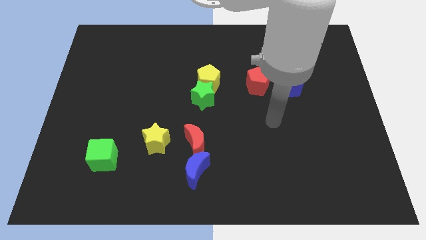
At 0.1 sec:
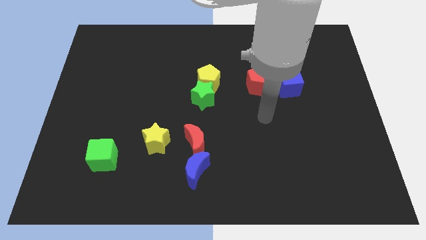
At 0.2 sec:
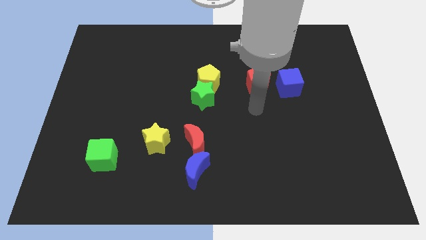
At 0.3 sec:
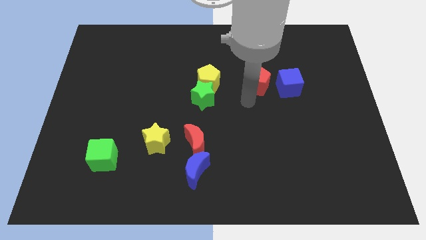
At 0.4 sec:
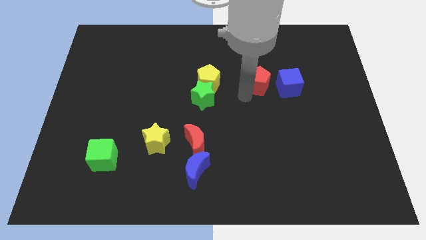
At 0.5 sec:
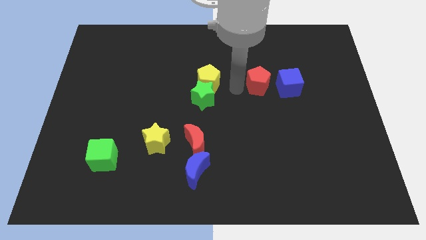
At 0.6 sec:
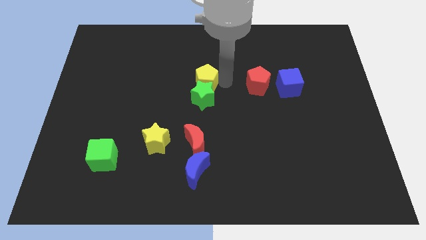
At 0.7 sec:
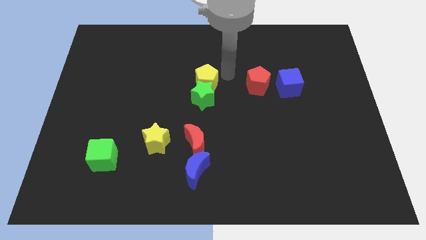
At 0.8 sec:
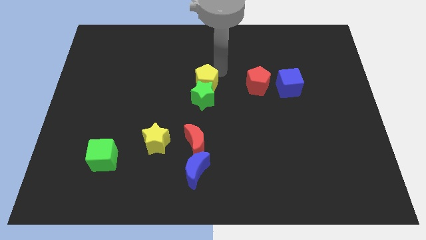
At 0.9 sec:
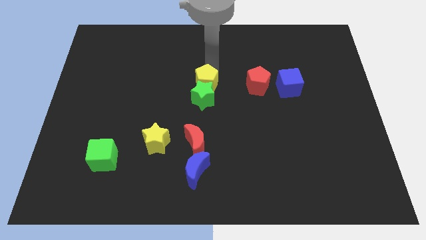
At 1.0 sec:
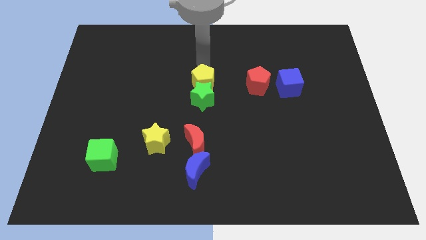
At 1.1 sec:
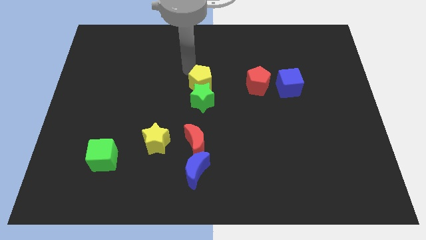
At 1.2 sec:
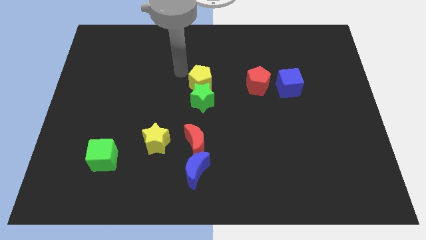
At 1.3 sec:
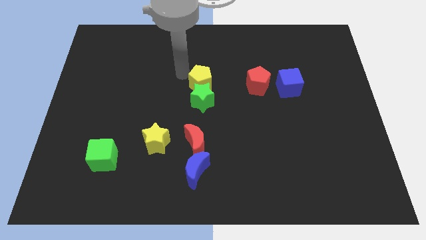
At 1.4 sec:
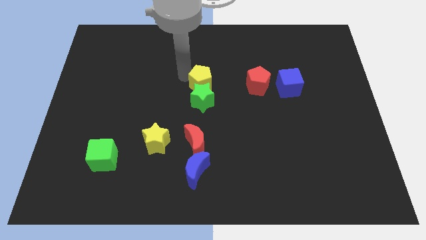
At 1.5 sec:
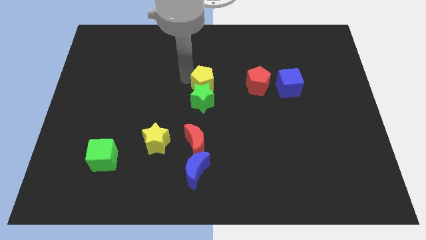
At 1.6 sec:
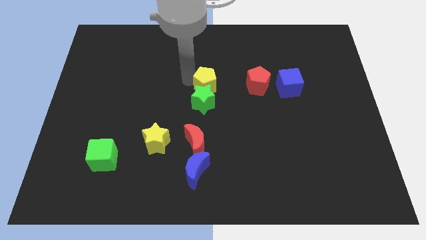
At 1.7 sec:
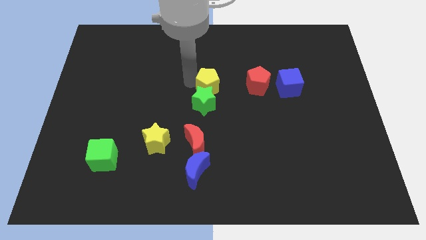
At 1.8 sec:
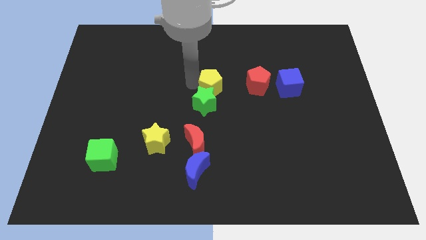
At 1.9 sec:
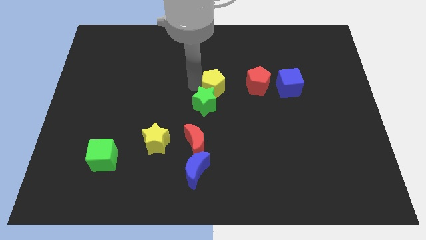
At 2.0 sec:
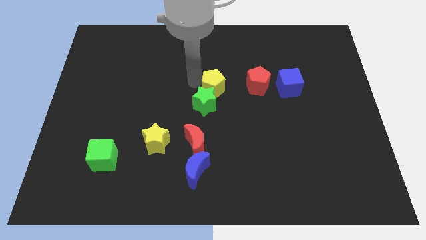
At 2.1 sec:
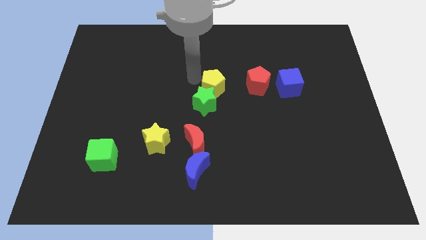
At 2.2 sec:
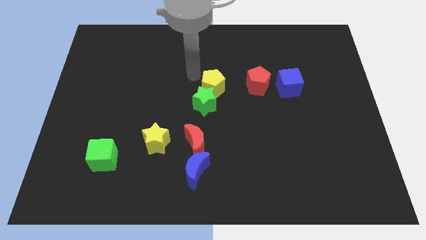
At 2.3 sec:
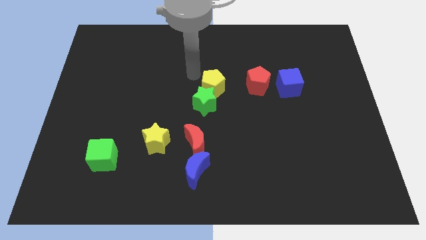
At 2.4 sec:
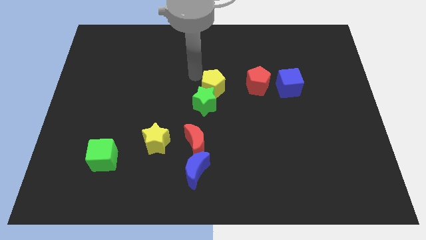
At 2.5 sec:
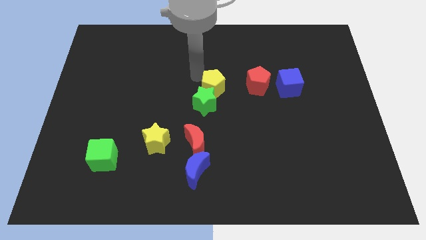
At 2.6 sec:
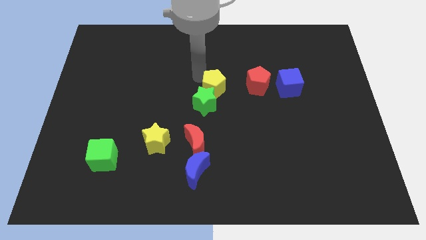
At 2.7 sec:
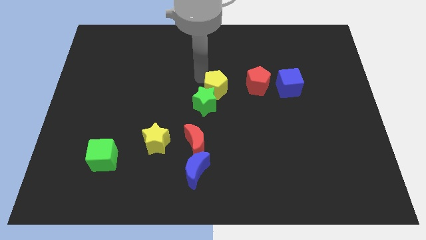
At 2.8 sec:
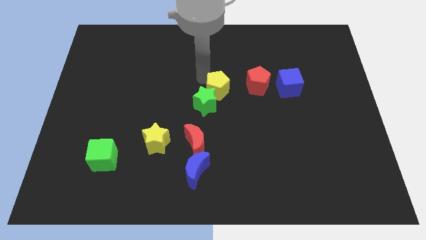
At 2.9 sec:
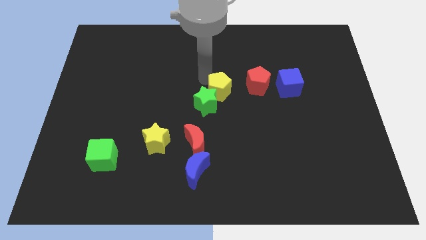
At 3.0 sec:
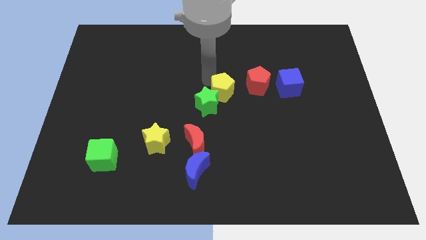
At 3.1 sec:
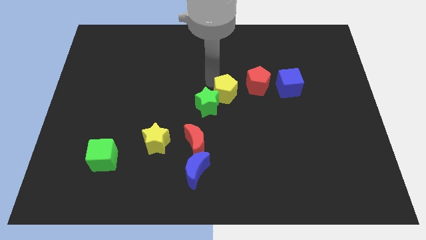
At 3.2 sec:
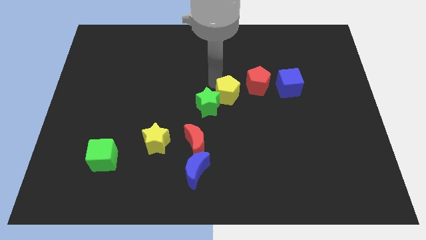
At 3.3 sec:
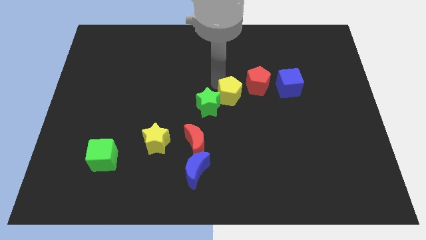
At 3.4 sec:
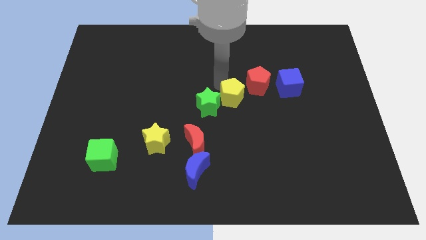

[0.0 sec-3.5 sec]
push the yellow pentagon a bit downwards and to the right

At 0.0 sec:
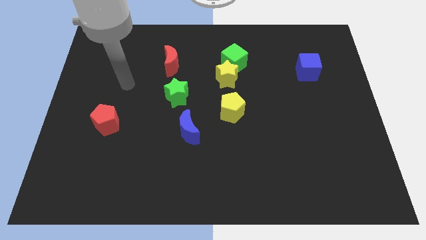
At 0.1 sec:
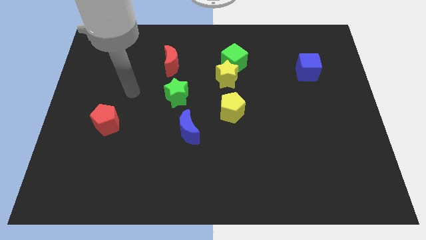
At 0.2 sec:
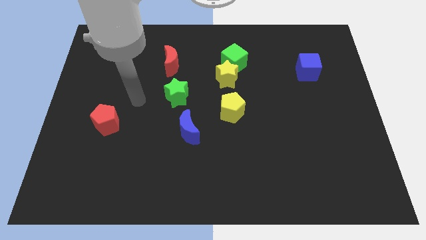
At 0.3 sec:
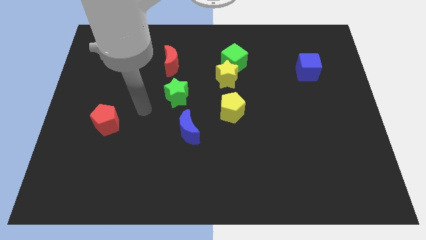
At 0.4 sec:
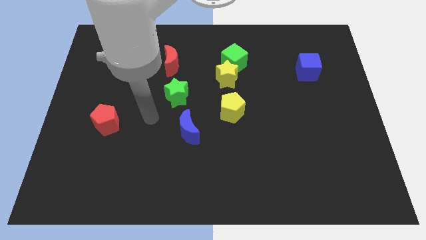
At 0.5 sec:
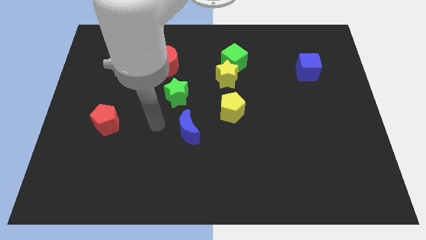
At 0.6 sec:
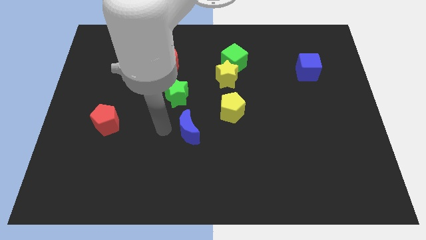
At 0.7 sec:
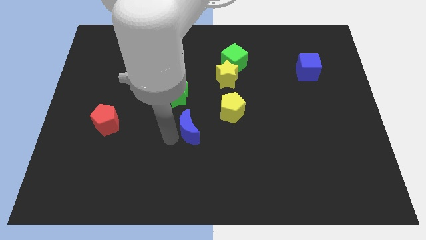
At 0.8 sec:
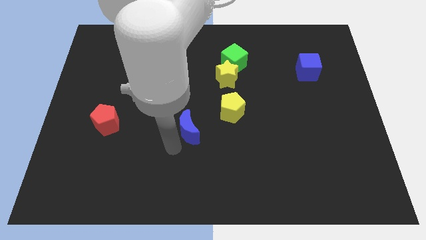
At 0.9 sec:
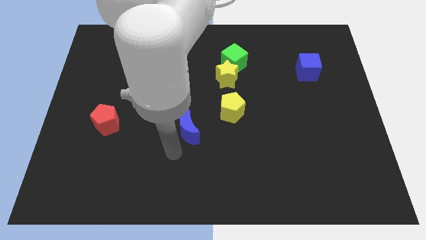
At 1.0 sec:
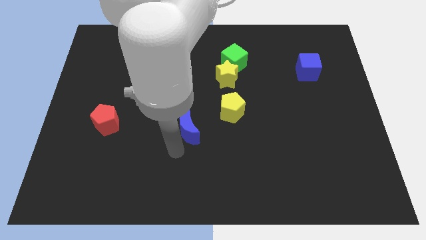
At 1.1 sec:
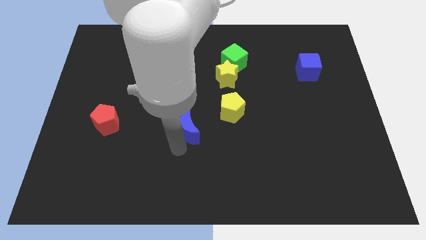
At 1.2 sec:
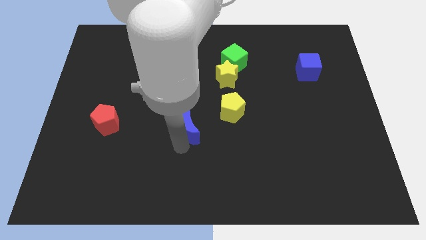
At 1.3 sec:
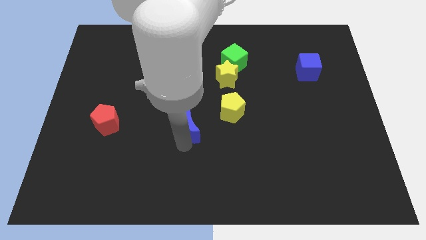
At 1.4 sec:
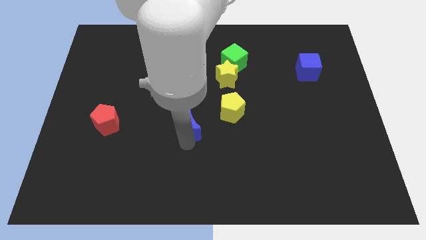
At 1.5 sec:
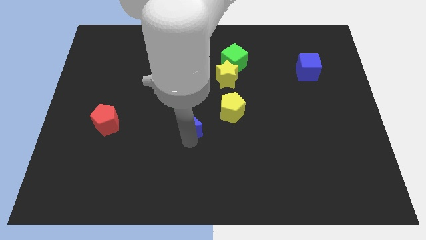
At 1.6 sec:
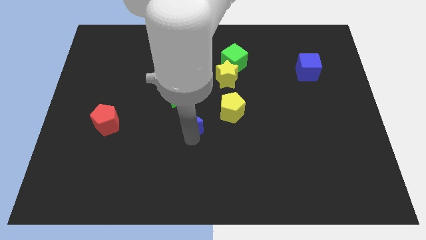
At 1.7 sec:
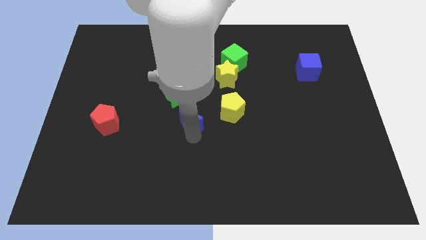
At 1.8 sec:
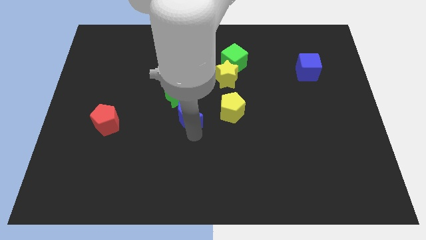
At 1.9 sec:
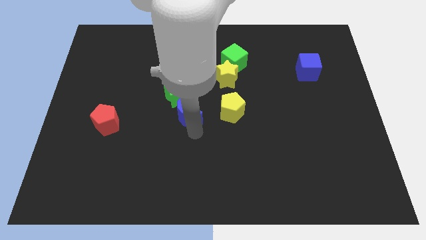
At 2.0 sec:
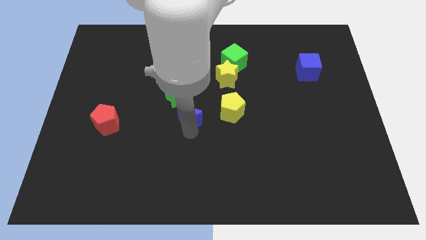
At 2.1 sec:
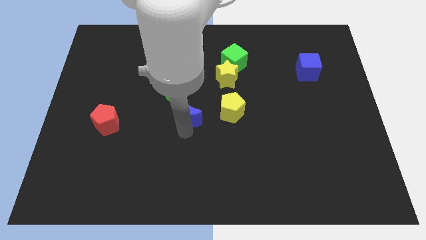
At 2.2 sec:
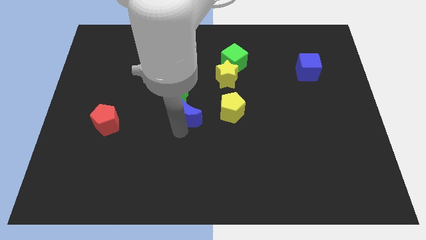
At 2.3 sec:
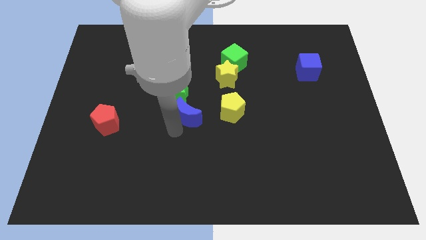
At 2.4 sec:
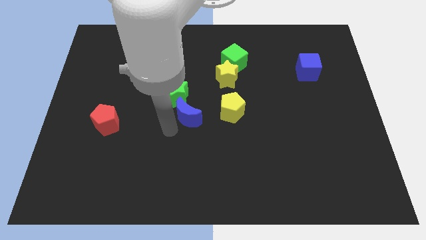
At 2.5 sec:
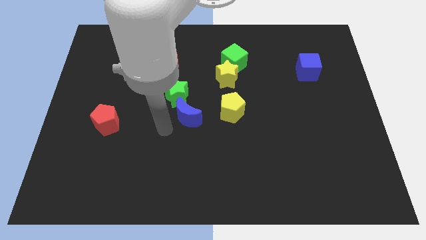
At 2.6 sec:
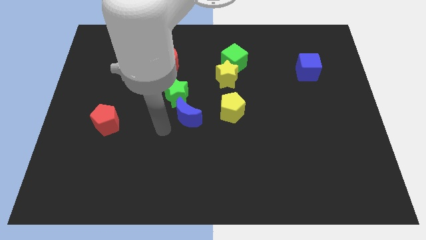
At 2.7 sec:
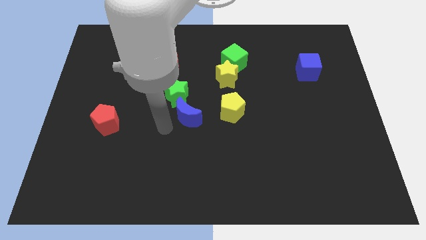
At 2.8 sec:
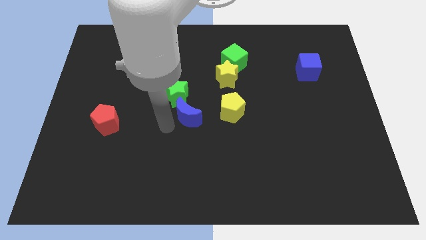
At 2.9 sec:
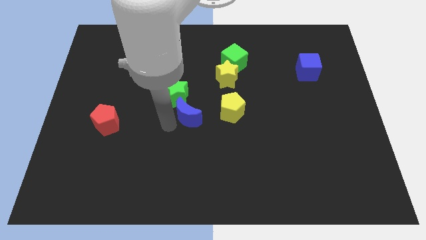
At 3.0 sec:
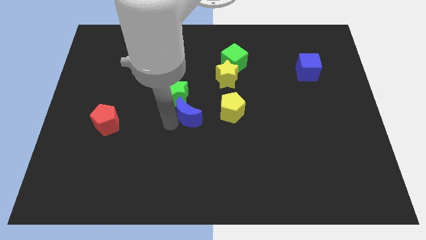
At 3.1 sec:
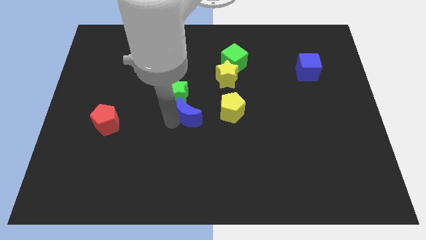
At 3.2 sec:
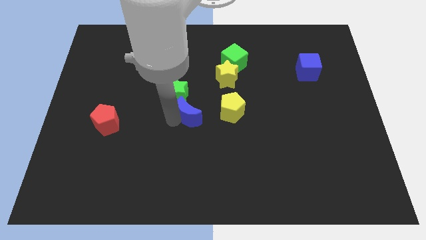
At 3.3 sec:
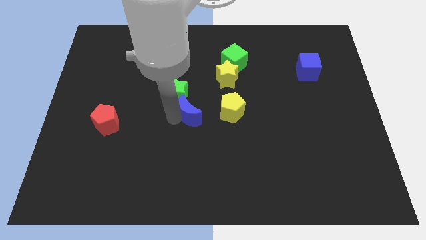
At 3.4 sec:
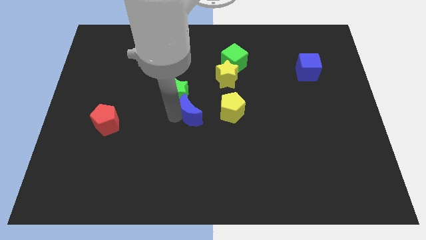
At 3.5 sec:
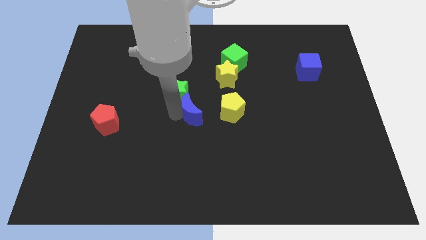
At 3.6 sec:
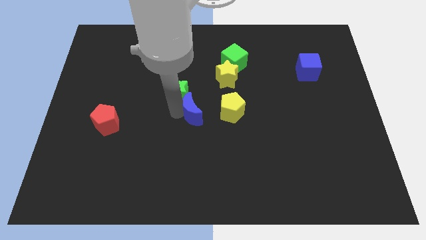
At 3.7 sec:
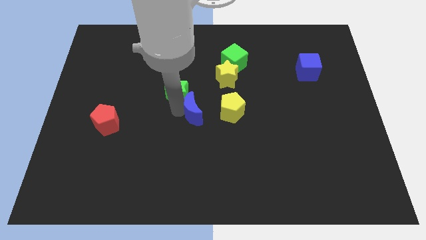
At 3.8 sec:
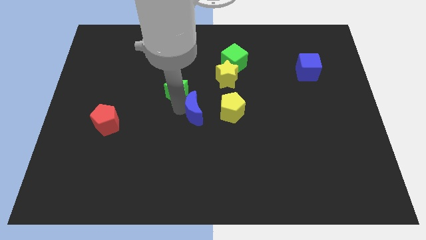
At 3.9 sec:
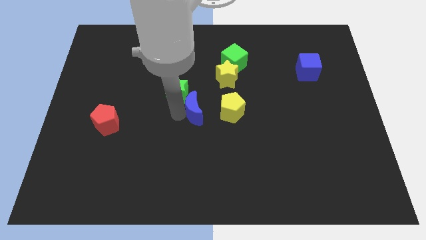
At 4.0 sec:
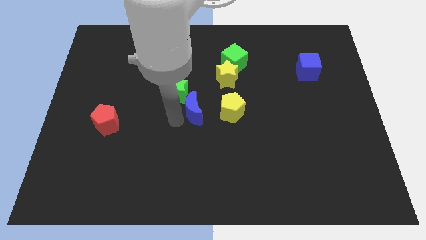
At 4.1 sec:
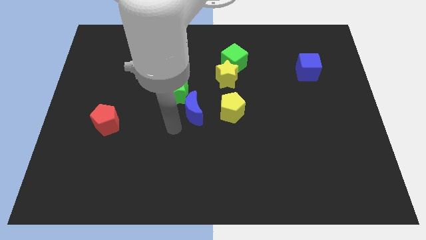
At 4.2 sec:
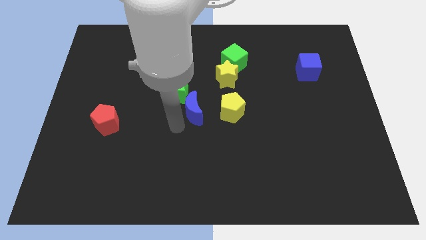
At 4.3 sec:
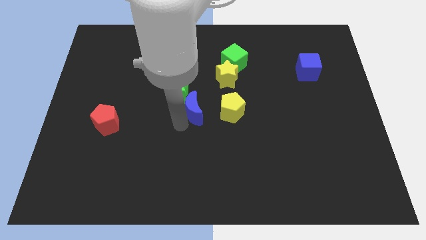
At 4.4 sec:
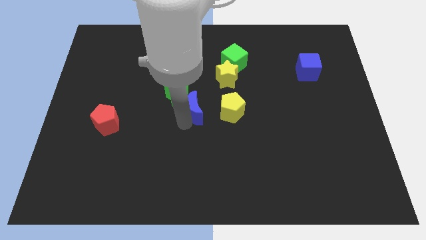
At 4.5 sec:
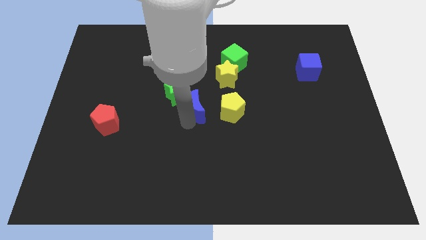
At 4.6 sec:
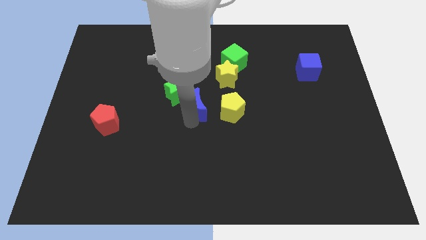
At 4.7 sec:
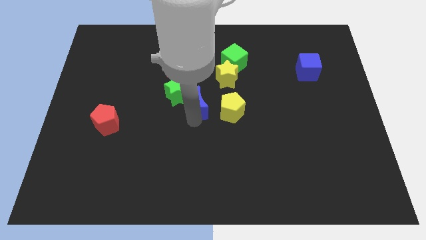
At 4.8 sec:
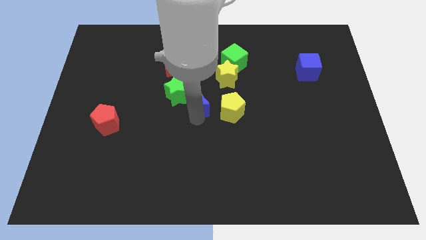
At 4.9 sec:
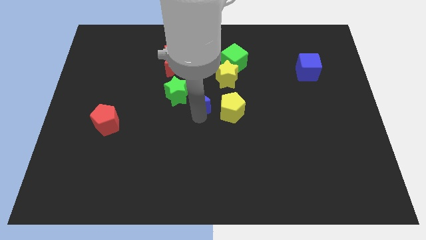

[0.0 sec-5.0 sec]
move the blue moon diagonally upwards and right a little
